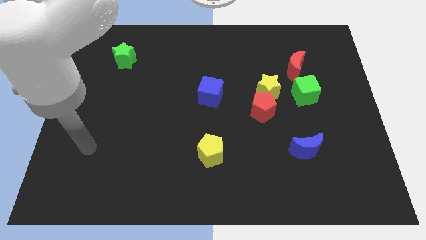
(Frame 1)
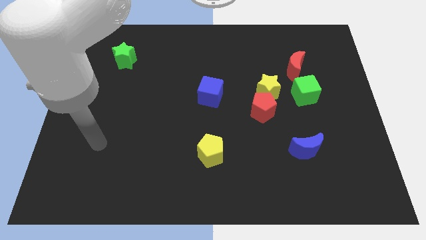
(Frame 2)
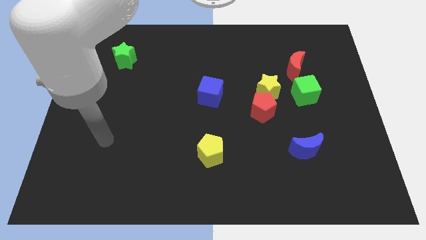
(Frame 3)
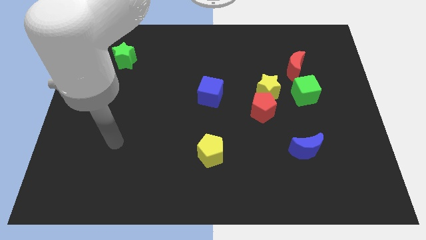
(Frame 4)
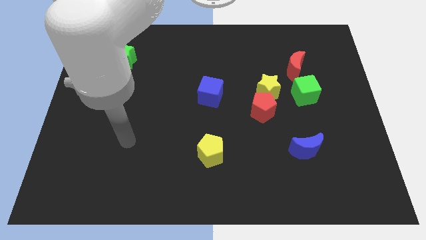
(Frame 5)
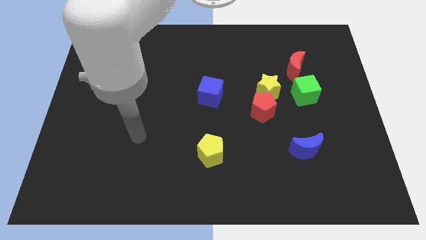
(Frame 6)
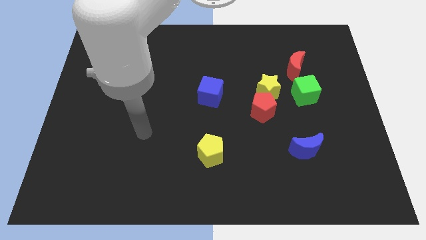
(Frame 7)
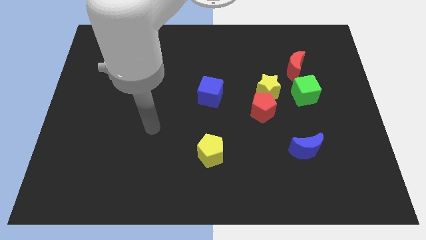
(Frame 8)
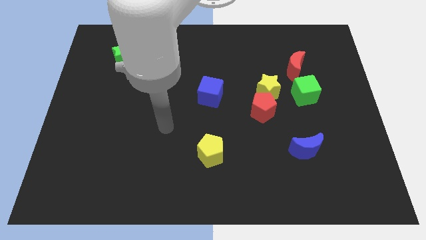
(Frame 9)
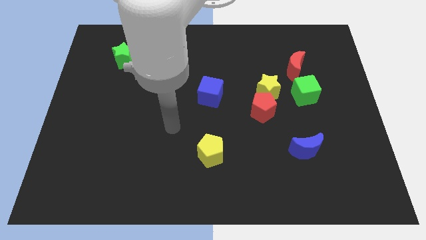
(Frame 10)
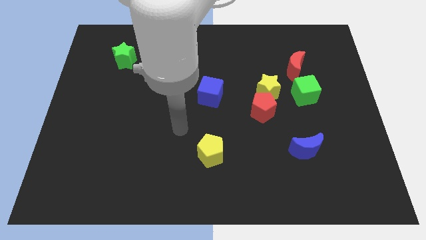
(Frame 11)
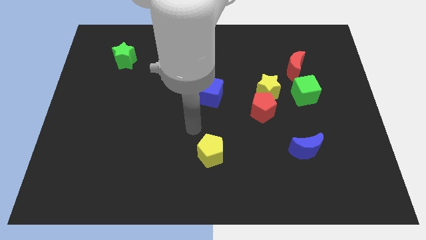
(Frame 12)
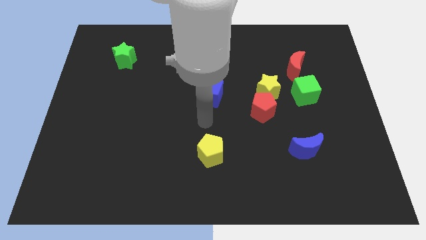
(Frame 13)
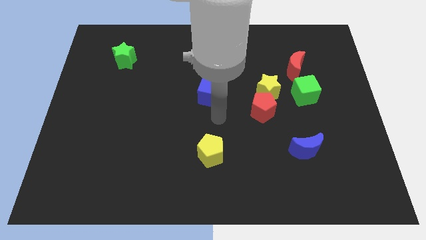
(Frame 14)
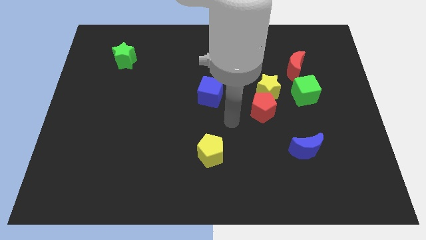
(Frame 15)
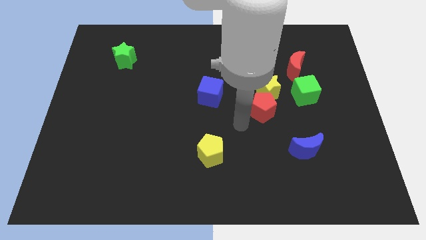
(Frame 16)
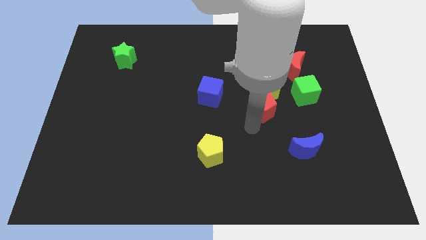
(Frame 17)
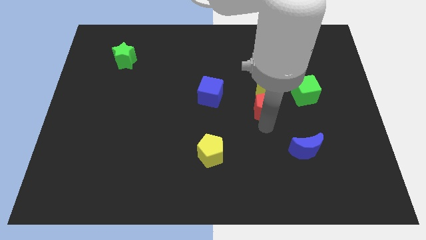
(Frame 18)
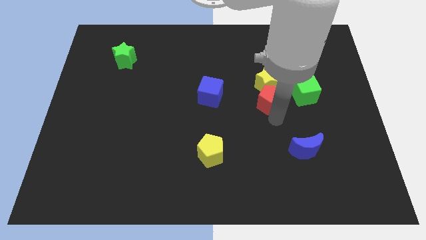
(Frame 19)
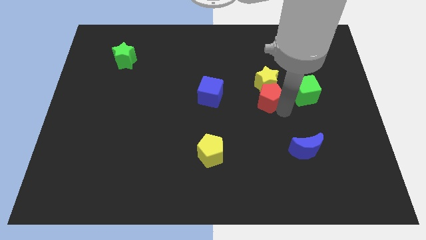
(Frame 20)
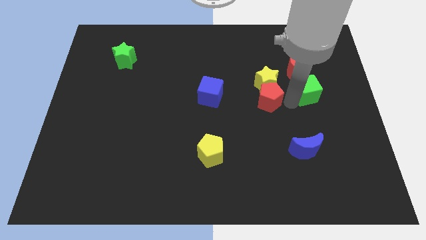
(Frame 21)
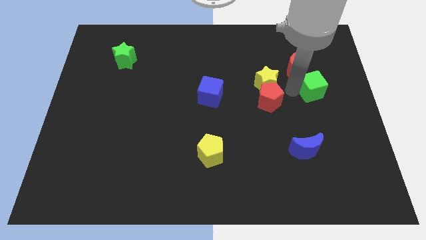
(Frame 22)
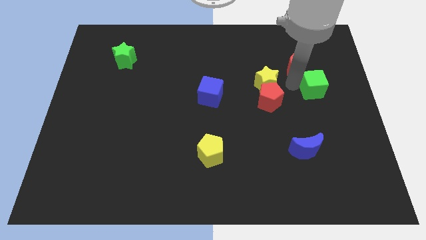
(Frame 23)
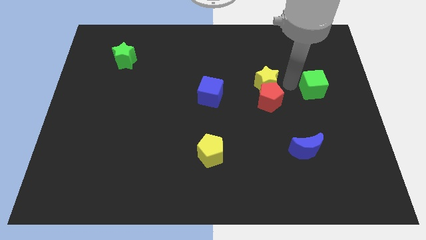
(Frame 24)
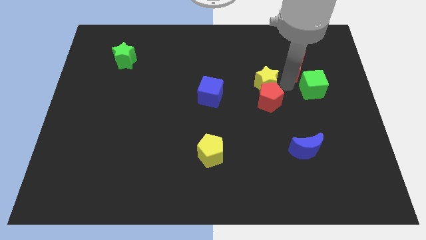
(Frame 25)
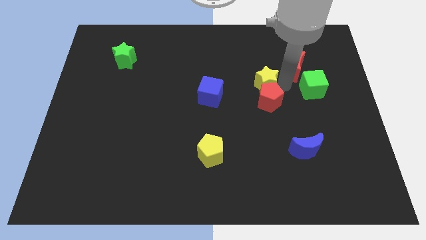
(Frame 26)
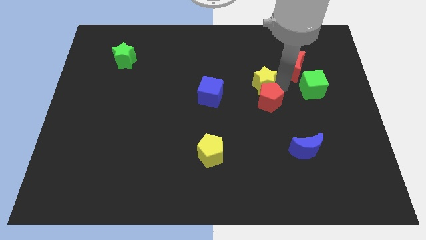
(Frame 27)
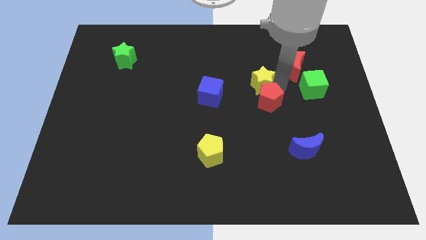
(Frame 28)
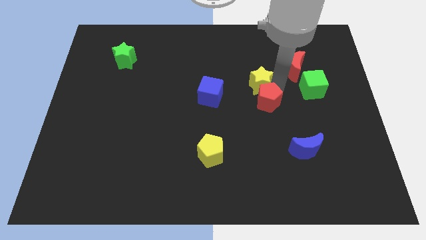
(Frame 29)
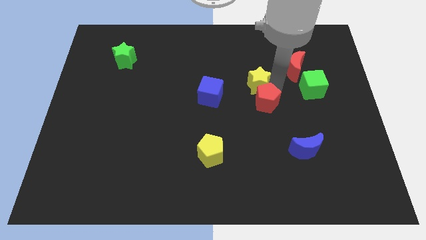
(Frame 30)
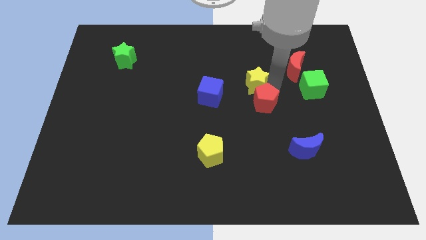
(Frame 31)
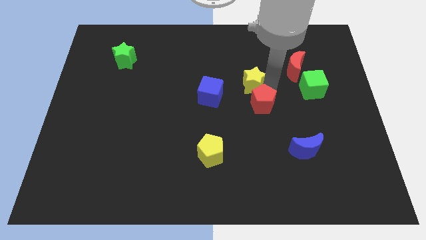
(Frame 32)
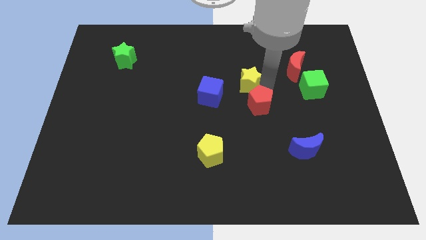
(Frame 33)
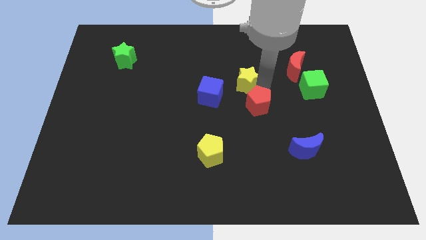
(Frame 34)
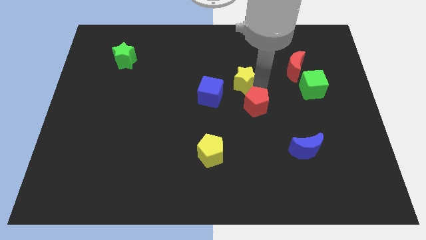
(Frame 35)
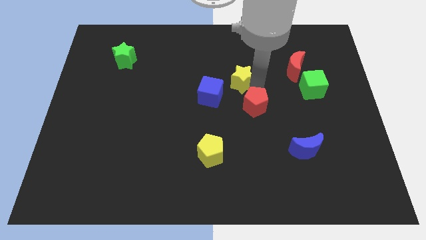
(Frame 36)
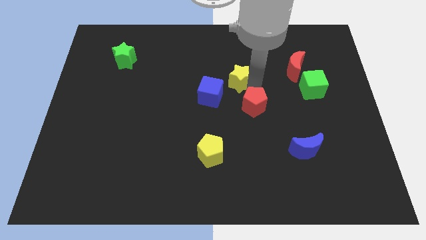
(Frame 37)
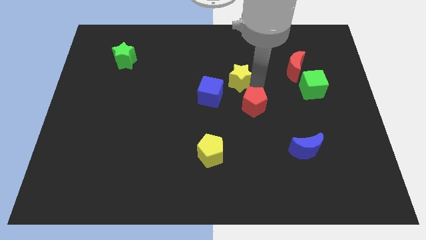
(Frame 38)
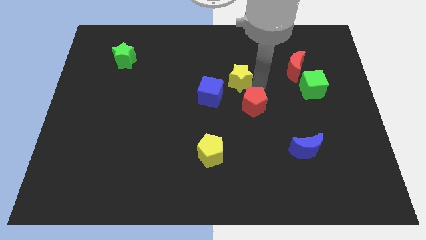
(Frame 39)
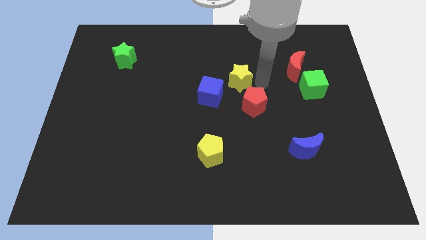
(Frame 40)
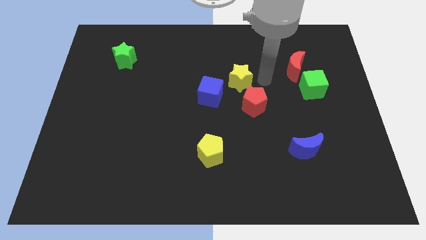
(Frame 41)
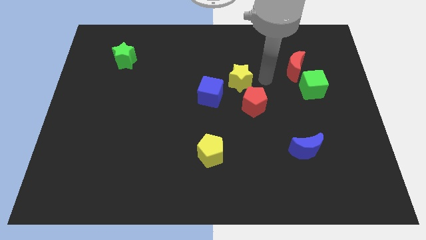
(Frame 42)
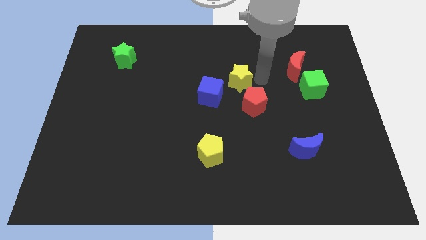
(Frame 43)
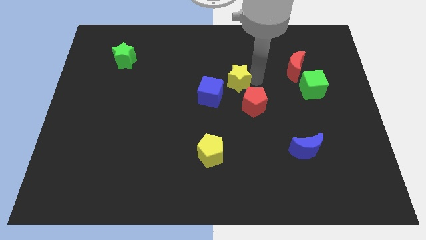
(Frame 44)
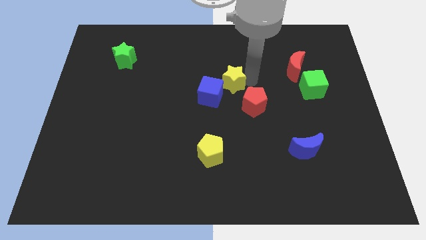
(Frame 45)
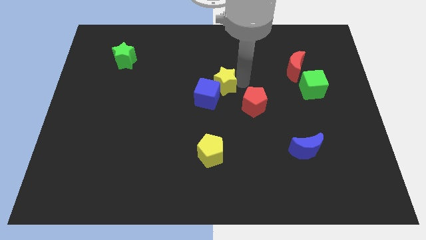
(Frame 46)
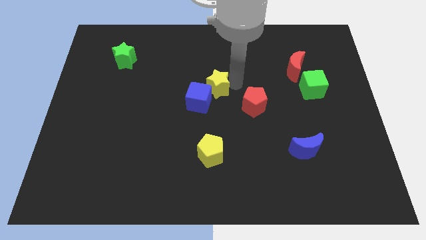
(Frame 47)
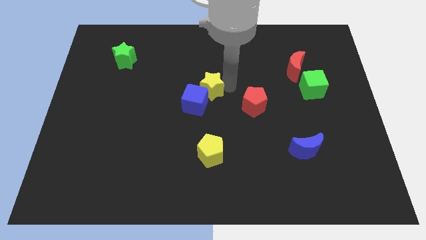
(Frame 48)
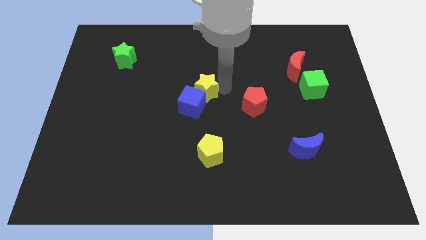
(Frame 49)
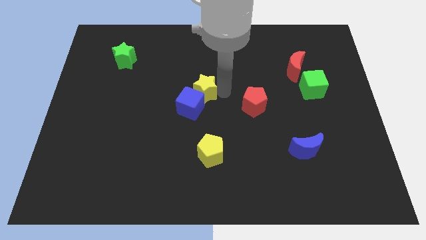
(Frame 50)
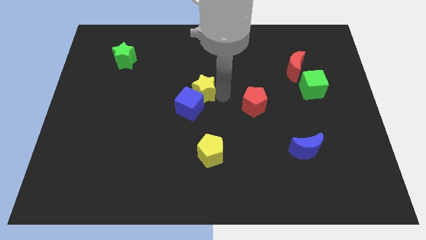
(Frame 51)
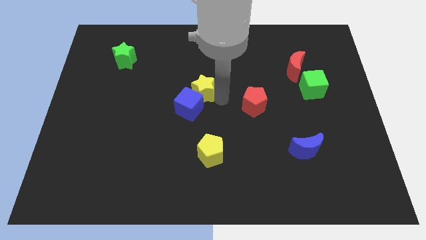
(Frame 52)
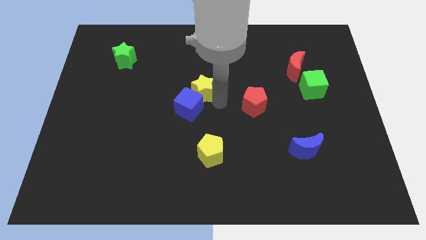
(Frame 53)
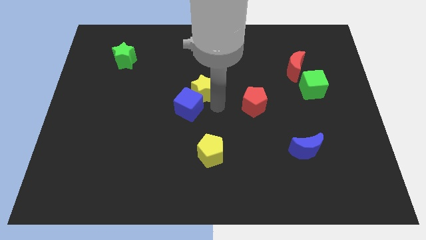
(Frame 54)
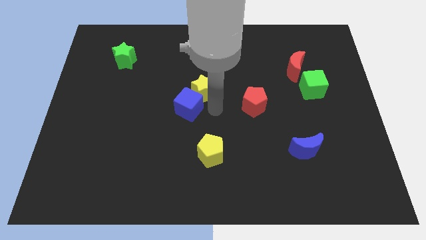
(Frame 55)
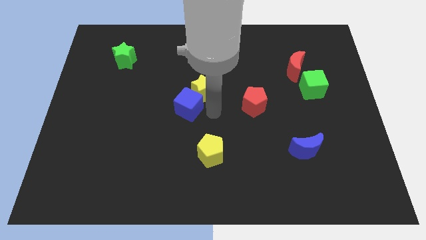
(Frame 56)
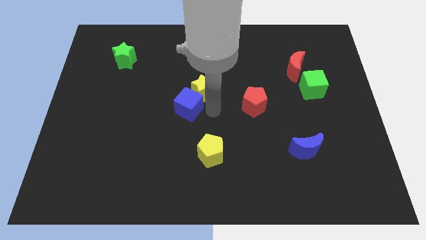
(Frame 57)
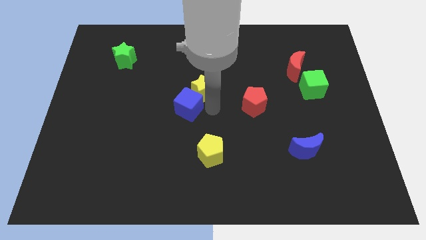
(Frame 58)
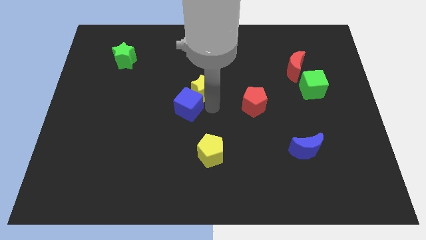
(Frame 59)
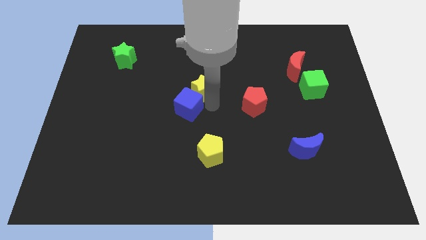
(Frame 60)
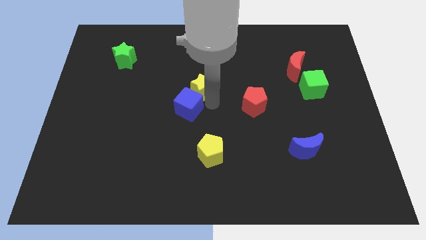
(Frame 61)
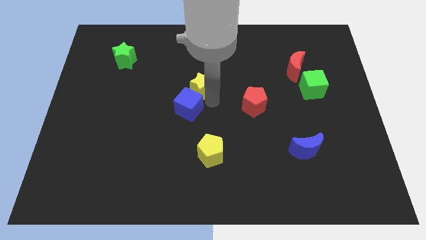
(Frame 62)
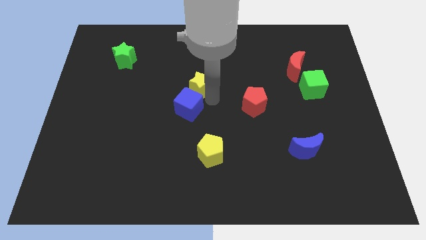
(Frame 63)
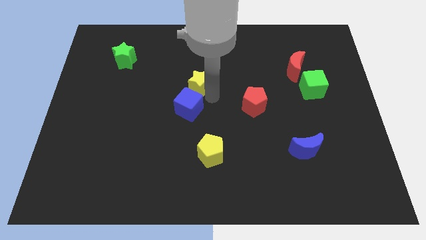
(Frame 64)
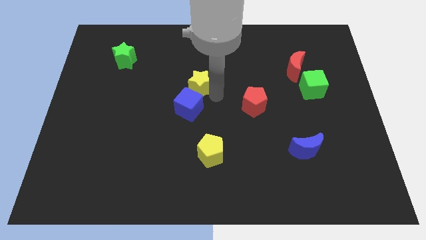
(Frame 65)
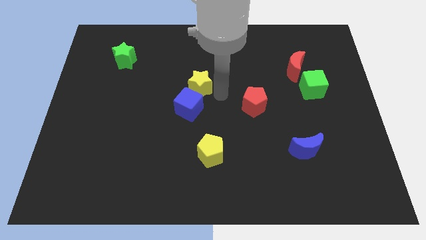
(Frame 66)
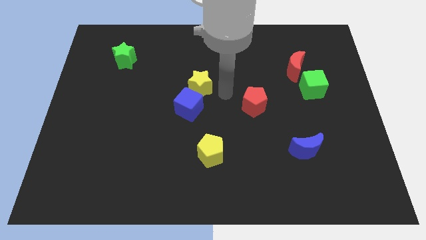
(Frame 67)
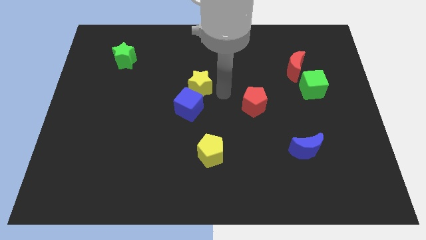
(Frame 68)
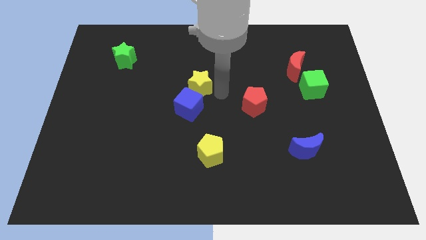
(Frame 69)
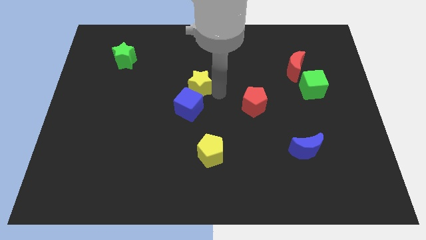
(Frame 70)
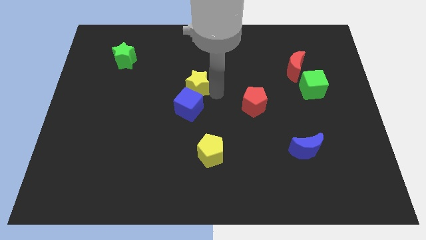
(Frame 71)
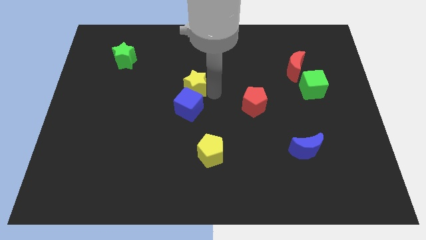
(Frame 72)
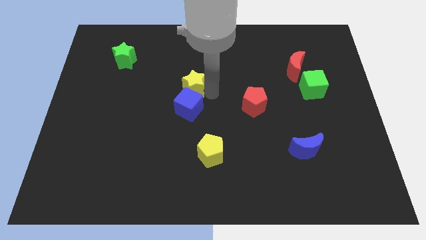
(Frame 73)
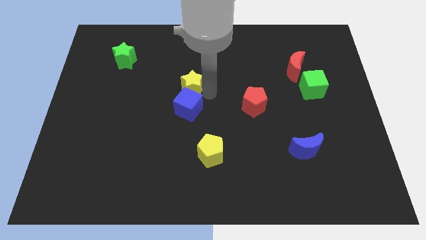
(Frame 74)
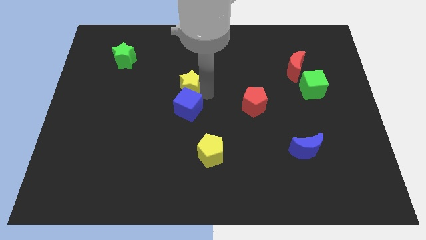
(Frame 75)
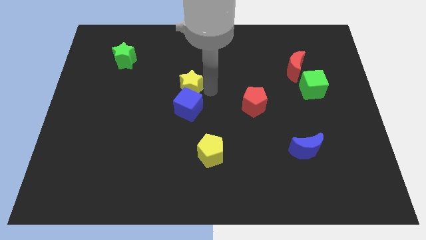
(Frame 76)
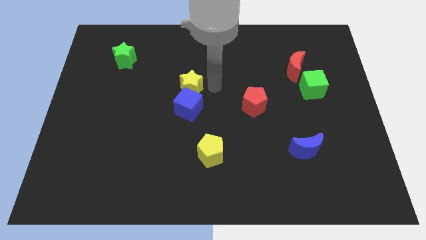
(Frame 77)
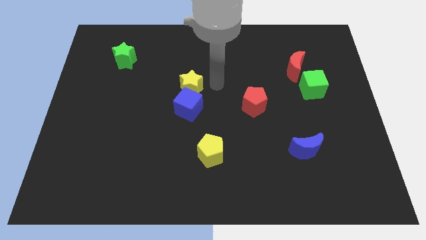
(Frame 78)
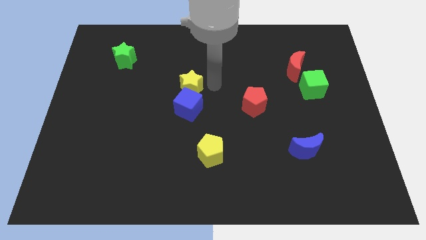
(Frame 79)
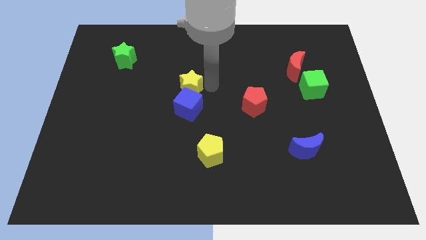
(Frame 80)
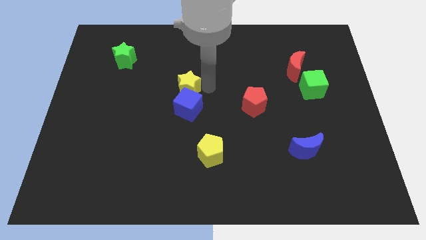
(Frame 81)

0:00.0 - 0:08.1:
push the yellow star to the left
